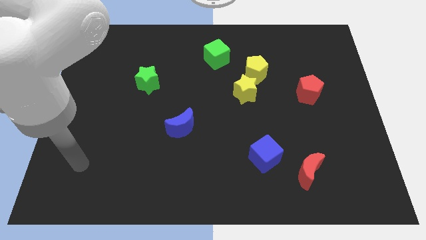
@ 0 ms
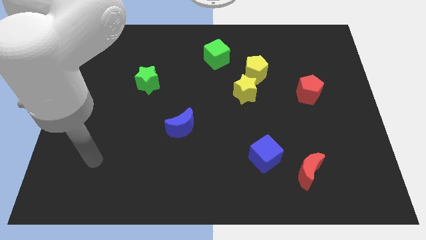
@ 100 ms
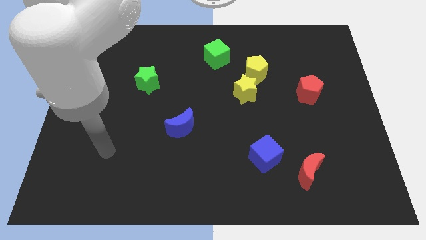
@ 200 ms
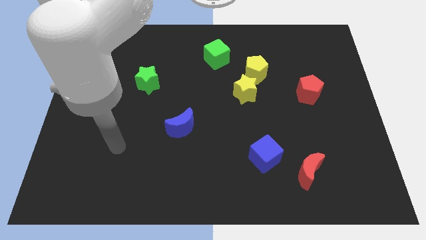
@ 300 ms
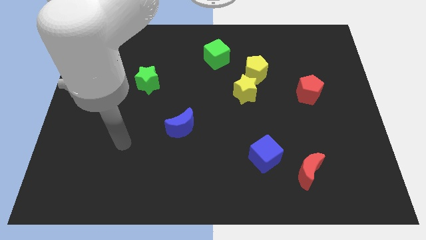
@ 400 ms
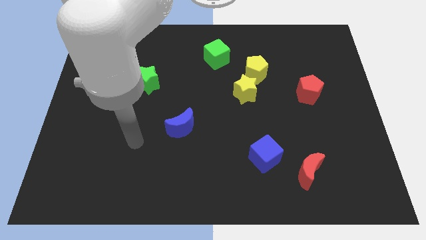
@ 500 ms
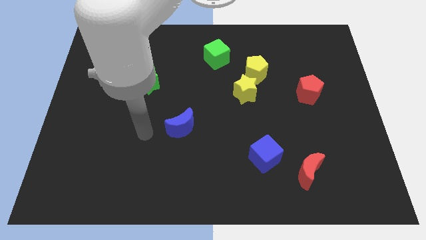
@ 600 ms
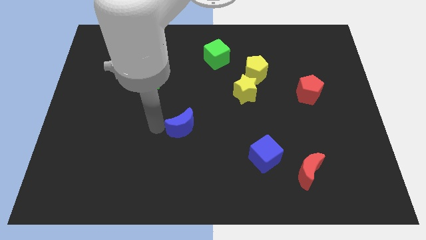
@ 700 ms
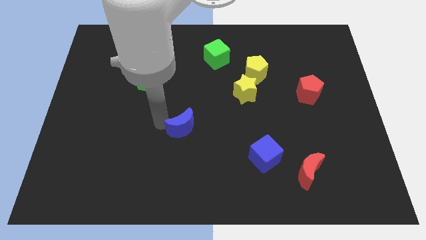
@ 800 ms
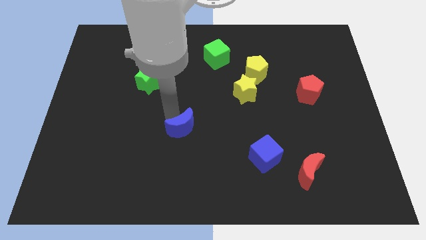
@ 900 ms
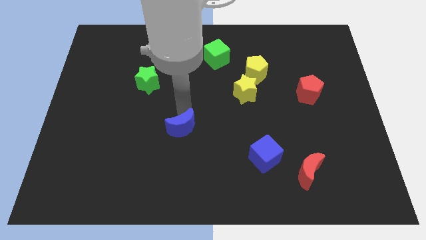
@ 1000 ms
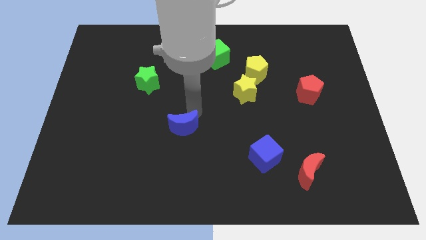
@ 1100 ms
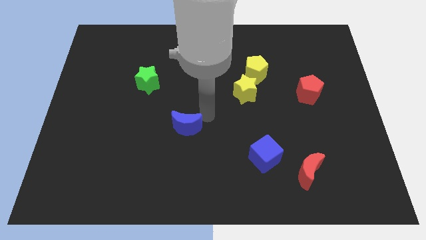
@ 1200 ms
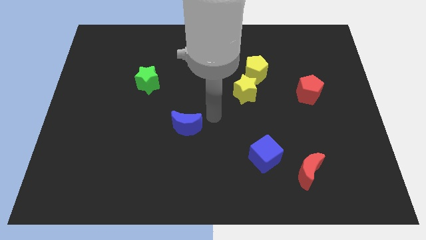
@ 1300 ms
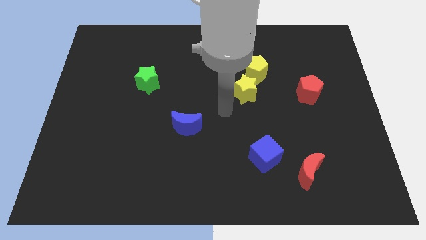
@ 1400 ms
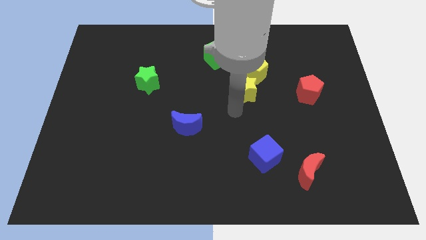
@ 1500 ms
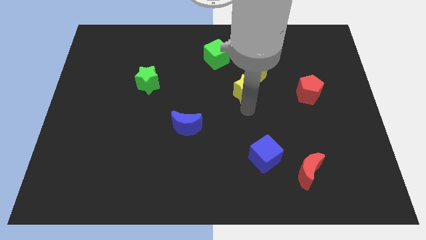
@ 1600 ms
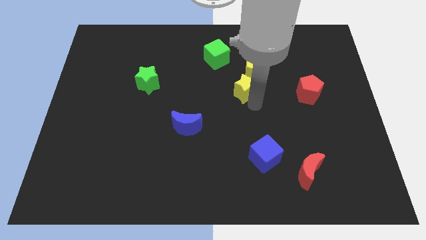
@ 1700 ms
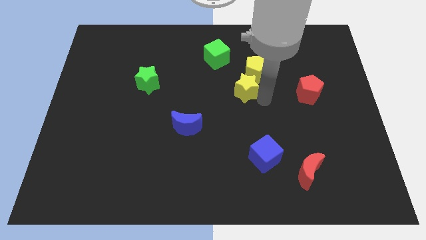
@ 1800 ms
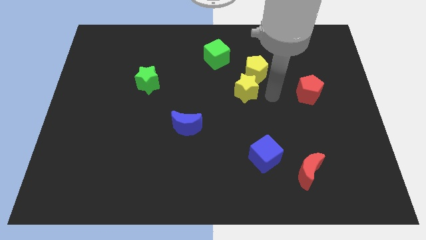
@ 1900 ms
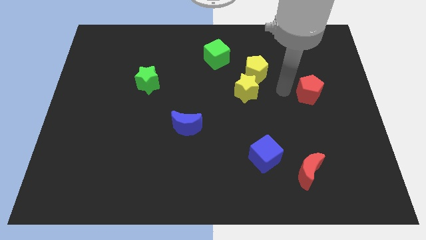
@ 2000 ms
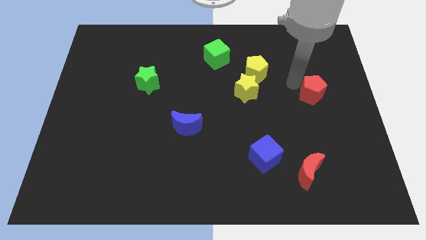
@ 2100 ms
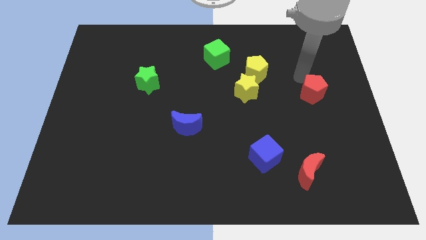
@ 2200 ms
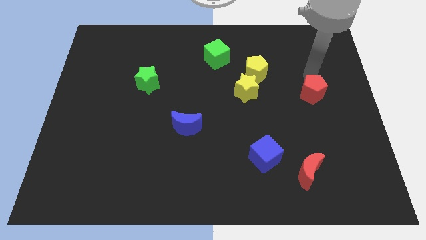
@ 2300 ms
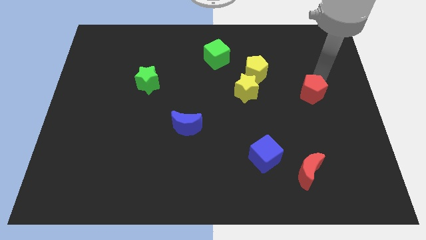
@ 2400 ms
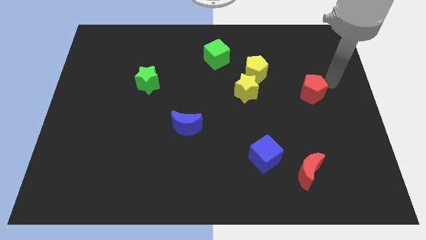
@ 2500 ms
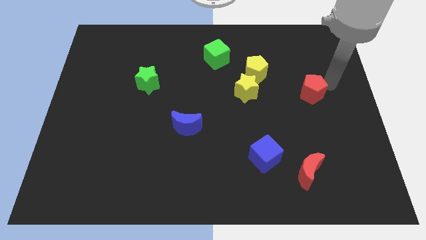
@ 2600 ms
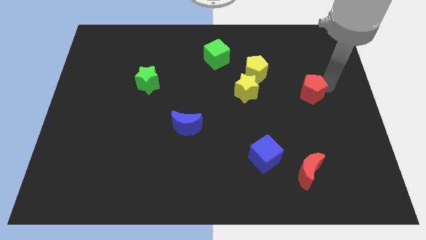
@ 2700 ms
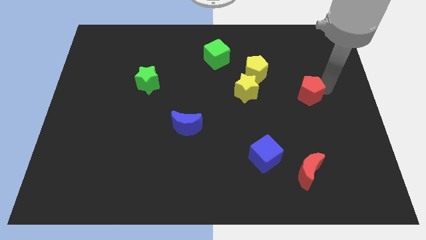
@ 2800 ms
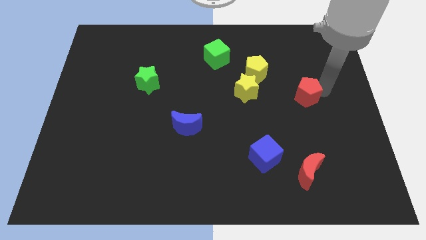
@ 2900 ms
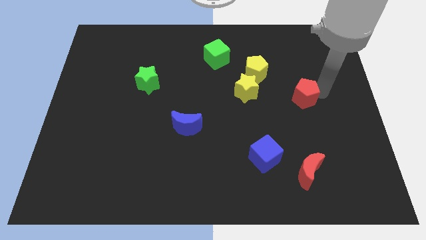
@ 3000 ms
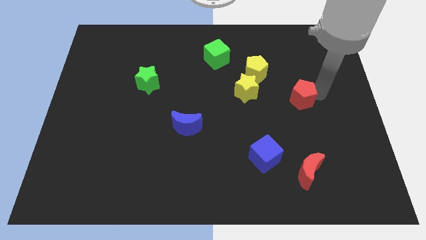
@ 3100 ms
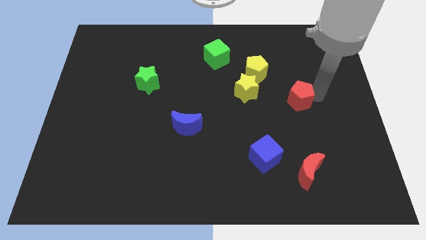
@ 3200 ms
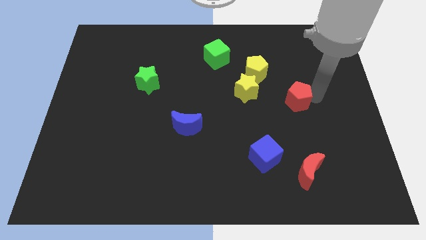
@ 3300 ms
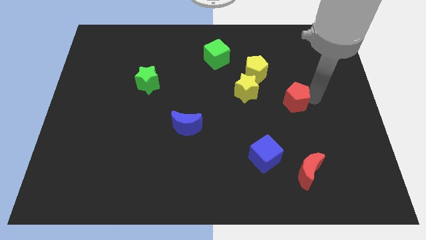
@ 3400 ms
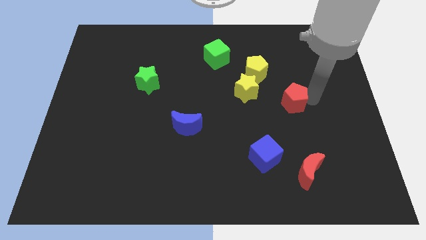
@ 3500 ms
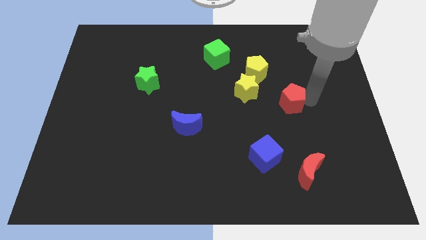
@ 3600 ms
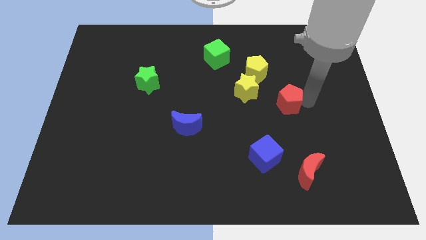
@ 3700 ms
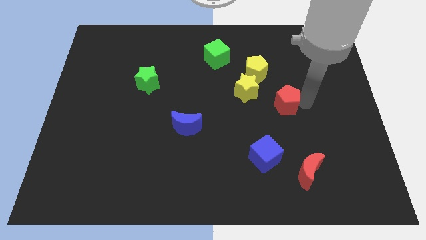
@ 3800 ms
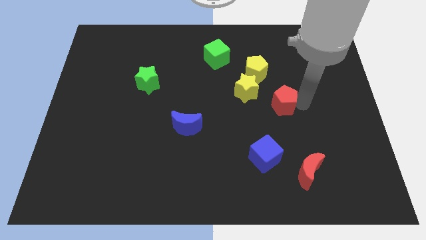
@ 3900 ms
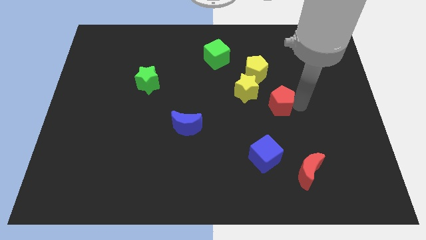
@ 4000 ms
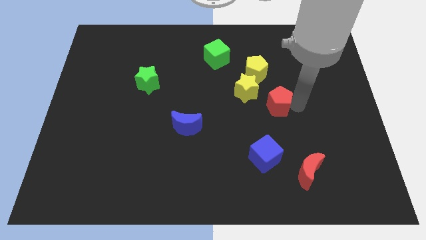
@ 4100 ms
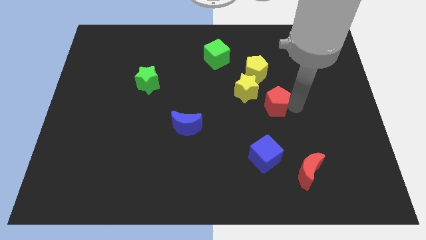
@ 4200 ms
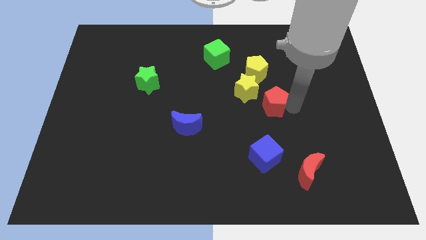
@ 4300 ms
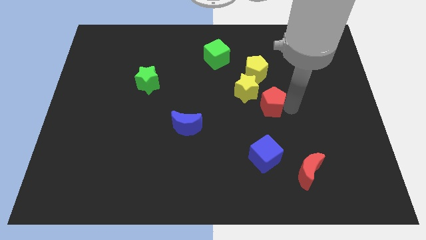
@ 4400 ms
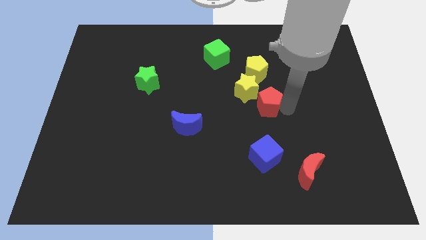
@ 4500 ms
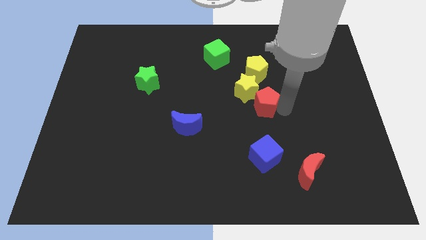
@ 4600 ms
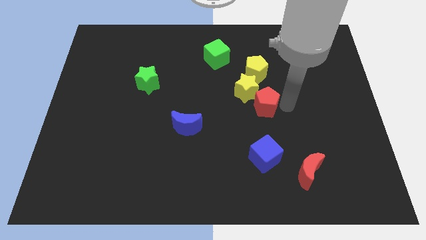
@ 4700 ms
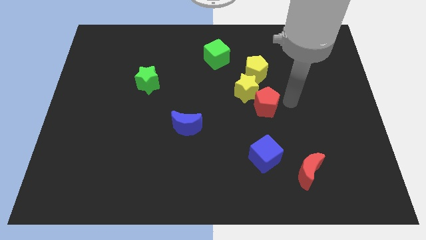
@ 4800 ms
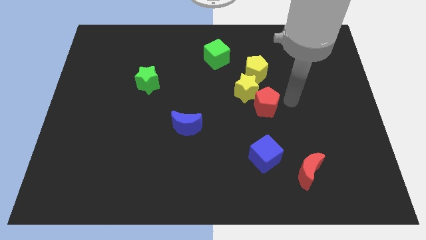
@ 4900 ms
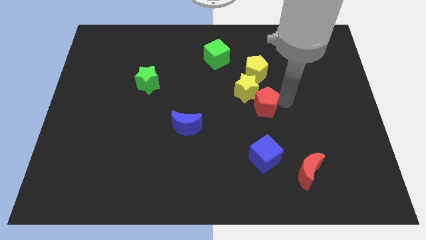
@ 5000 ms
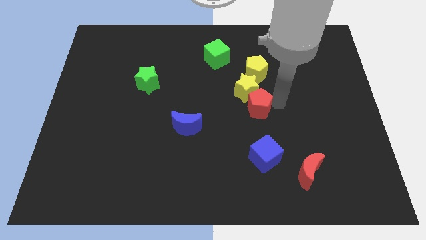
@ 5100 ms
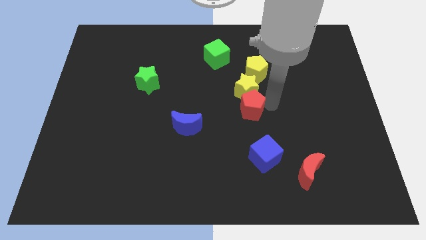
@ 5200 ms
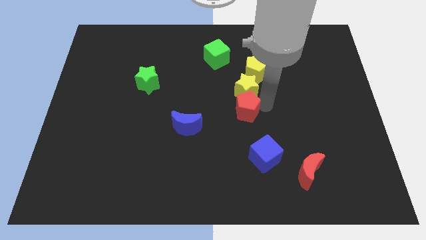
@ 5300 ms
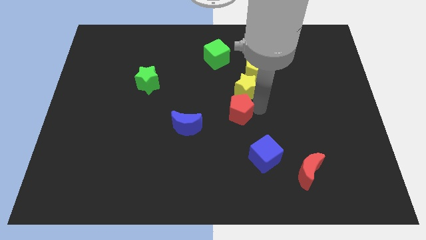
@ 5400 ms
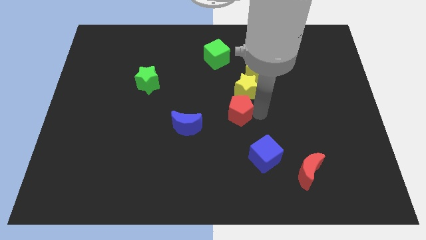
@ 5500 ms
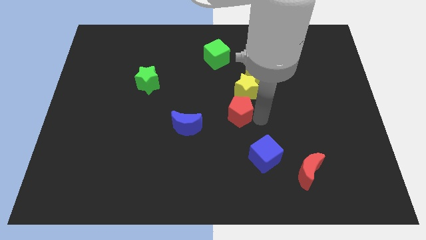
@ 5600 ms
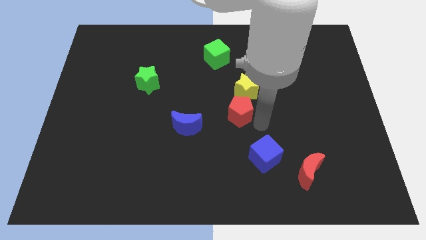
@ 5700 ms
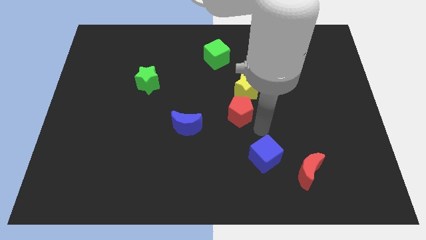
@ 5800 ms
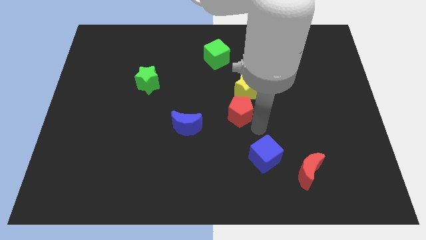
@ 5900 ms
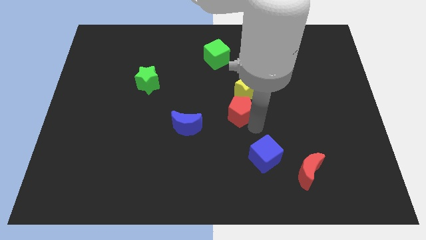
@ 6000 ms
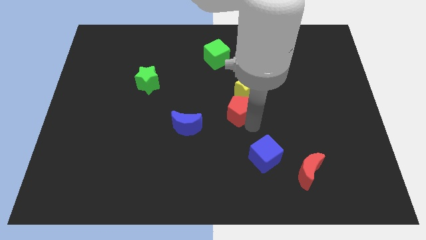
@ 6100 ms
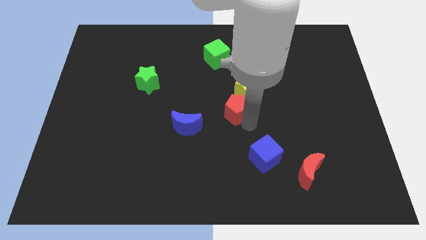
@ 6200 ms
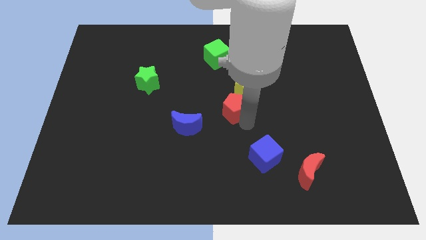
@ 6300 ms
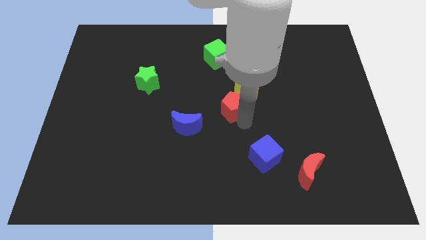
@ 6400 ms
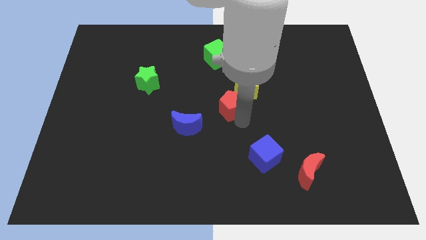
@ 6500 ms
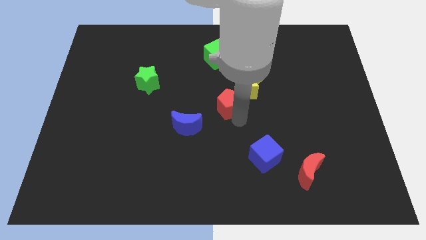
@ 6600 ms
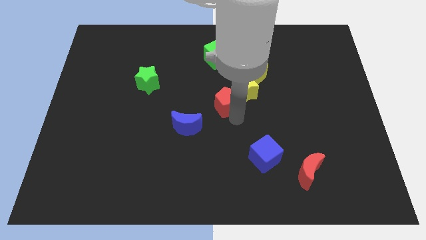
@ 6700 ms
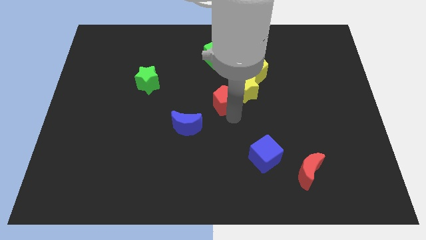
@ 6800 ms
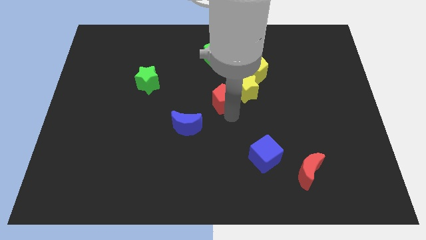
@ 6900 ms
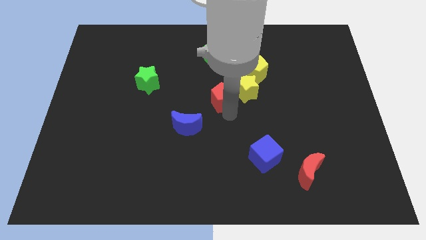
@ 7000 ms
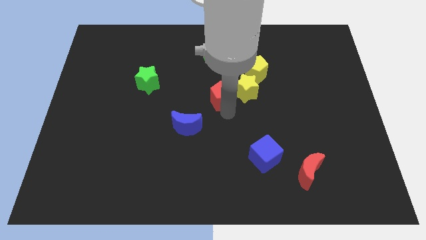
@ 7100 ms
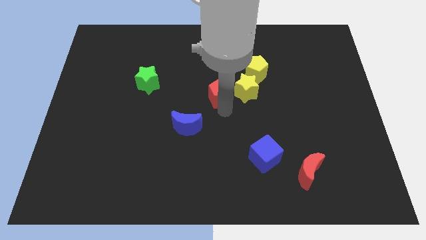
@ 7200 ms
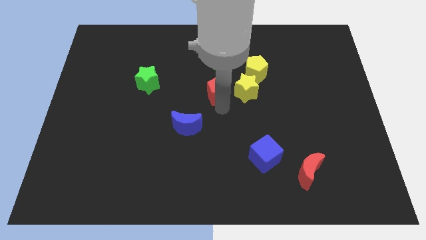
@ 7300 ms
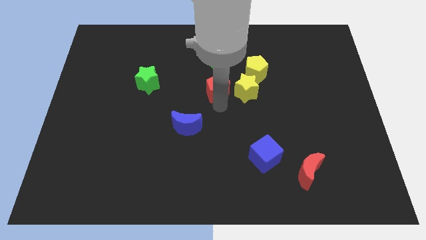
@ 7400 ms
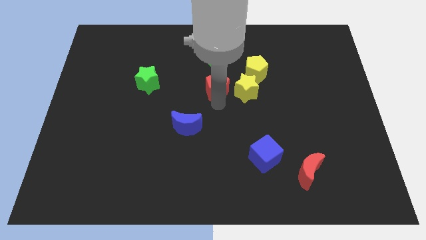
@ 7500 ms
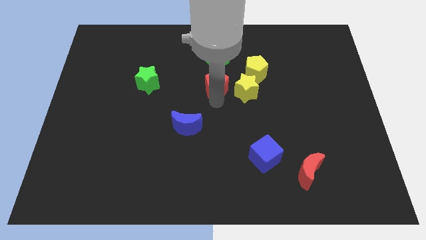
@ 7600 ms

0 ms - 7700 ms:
put the red pentagon left of the yellow pentagon

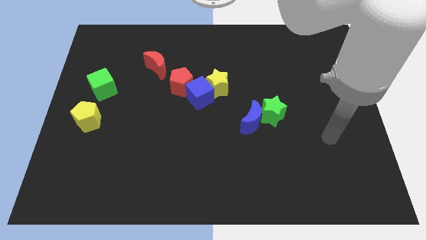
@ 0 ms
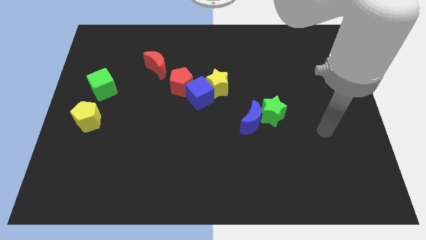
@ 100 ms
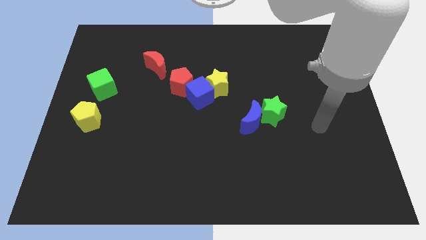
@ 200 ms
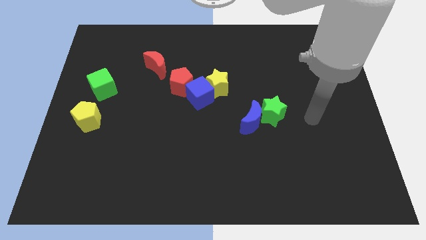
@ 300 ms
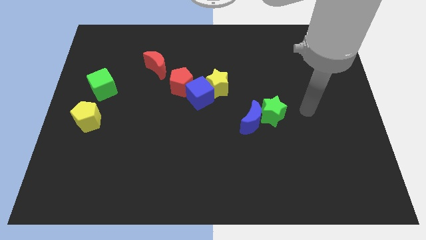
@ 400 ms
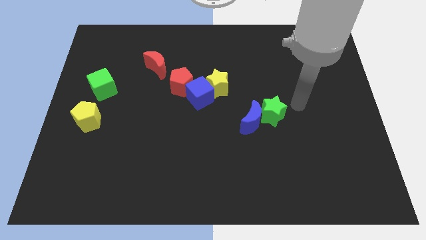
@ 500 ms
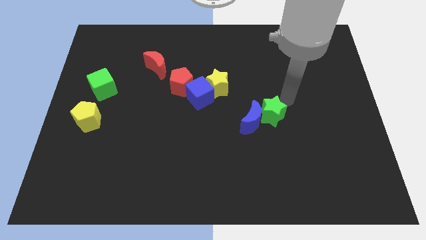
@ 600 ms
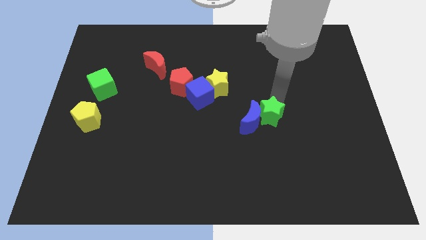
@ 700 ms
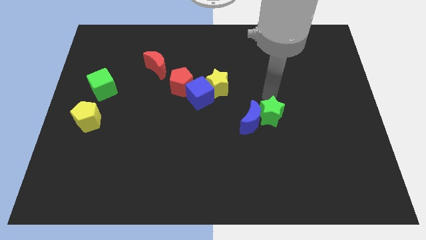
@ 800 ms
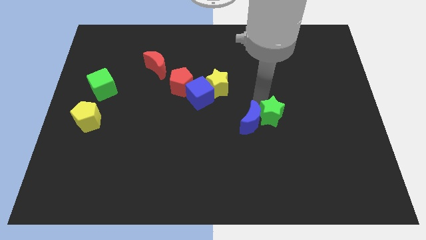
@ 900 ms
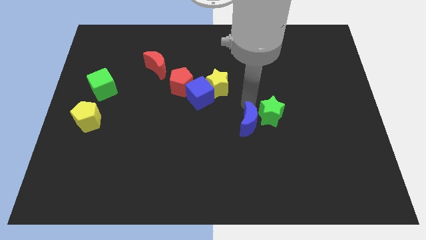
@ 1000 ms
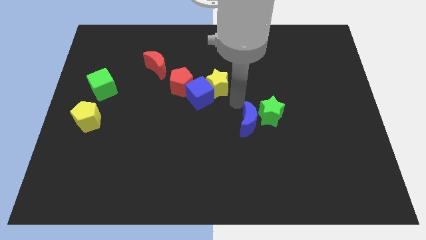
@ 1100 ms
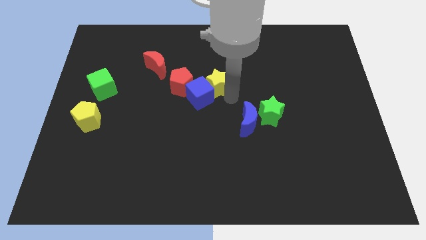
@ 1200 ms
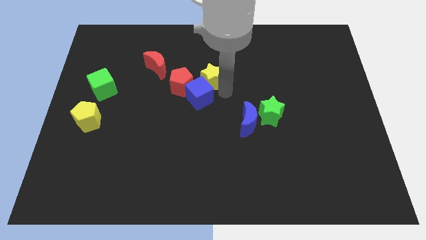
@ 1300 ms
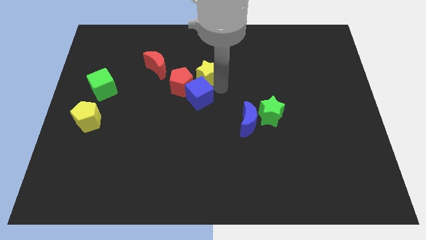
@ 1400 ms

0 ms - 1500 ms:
slide the yellow star right of the red moon
